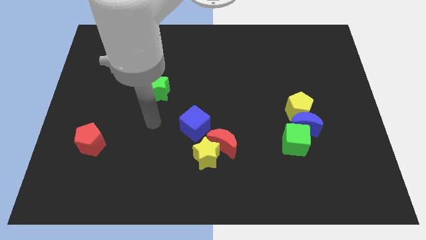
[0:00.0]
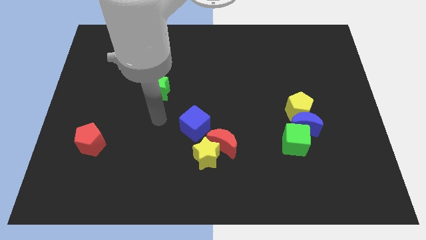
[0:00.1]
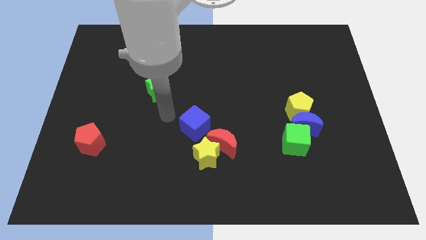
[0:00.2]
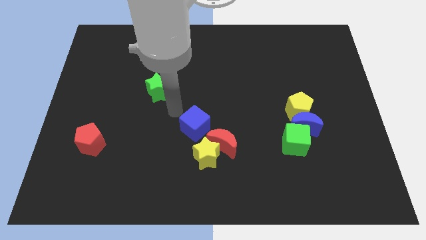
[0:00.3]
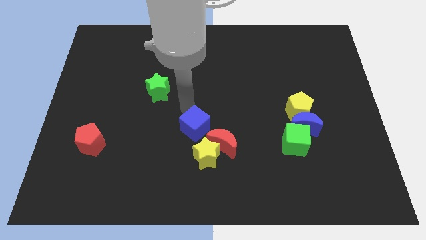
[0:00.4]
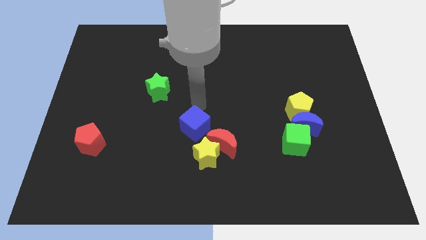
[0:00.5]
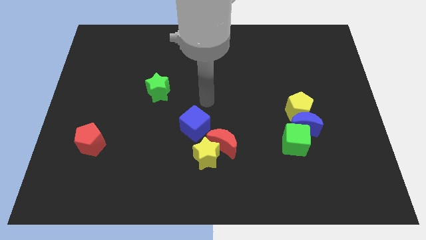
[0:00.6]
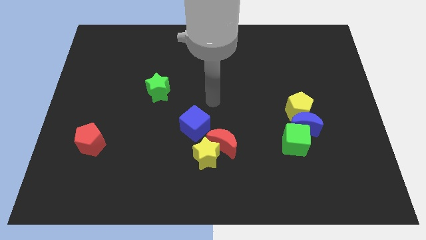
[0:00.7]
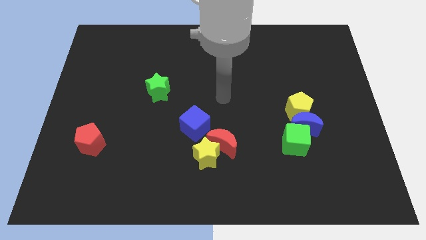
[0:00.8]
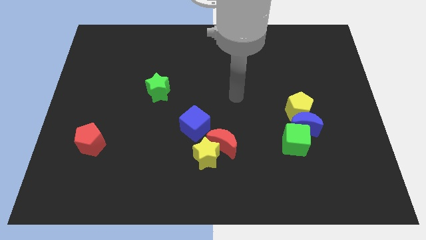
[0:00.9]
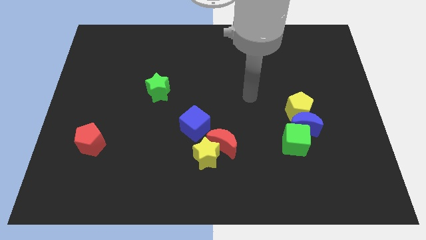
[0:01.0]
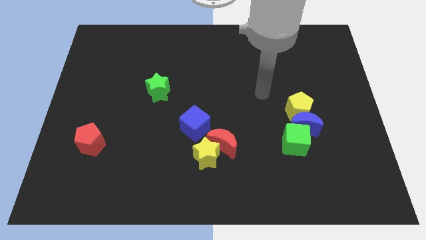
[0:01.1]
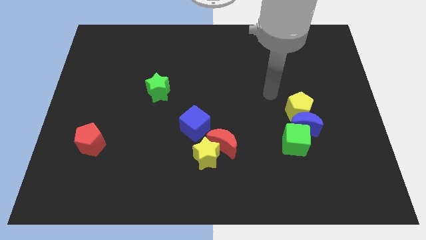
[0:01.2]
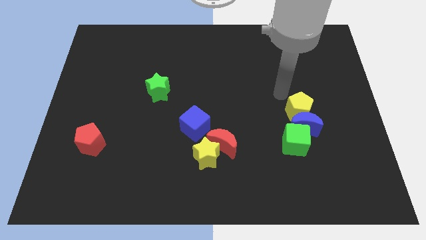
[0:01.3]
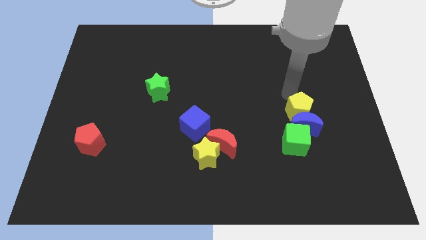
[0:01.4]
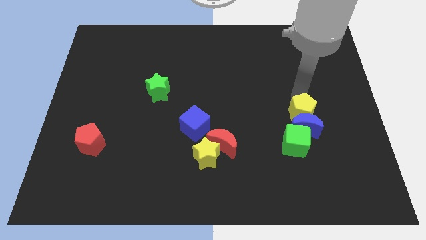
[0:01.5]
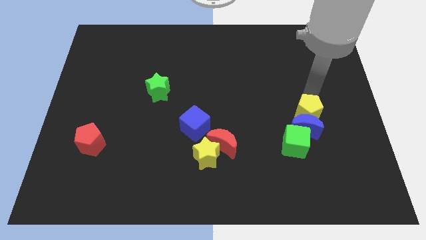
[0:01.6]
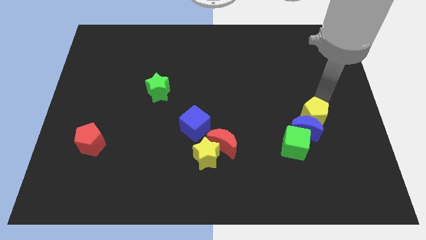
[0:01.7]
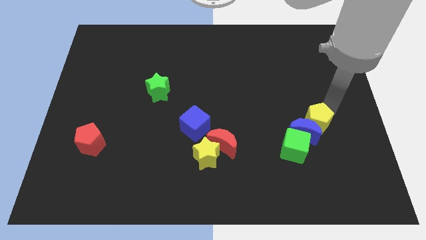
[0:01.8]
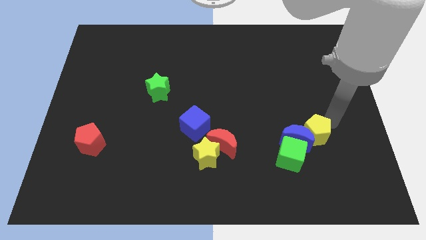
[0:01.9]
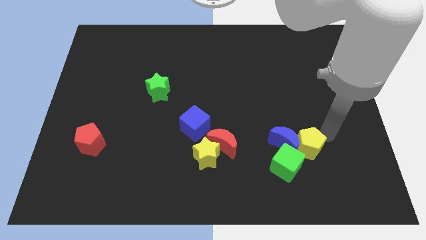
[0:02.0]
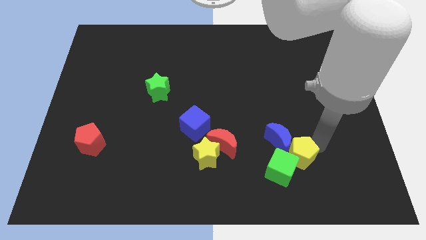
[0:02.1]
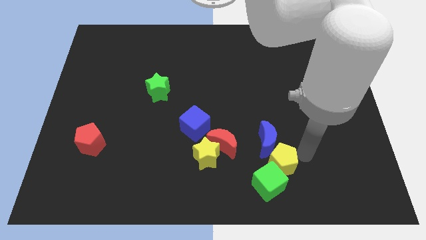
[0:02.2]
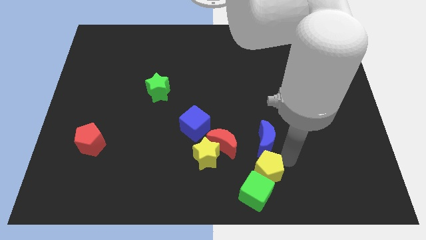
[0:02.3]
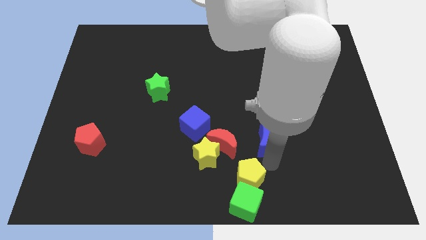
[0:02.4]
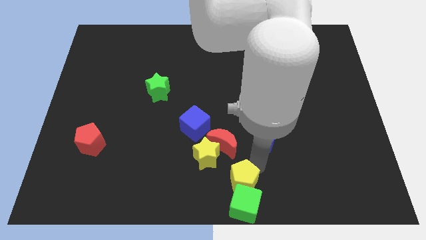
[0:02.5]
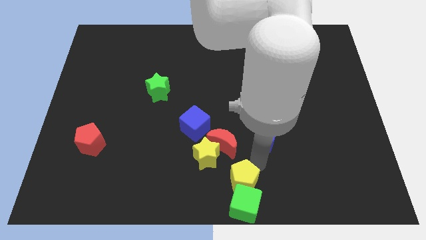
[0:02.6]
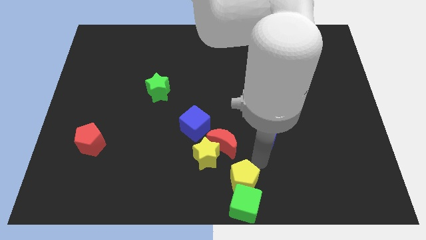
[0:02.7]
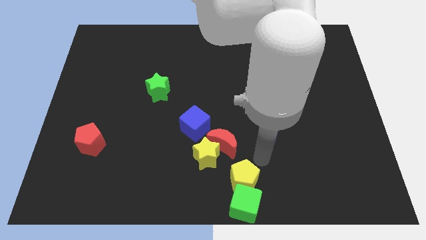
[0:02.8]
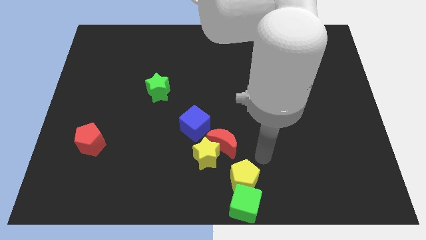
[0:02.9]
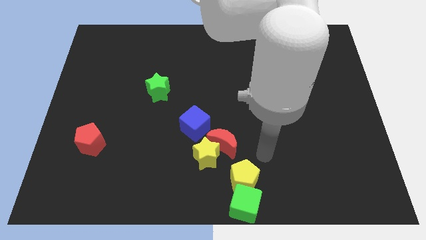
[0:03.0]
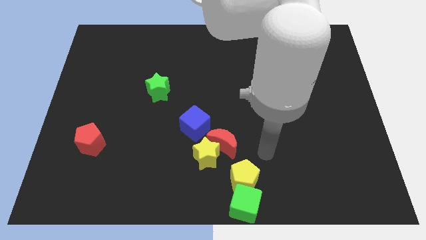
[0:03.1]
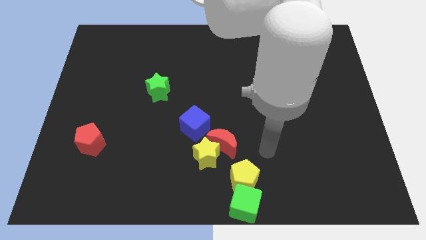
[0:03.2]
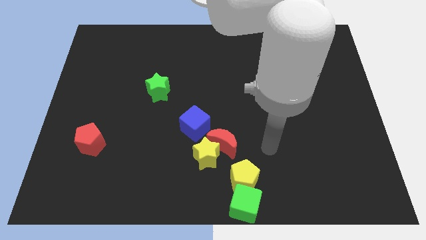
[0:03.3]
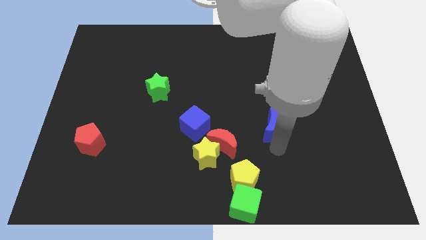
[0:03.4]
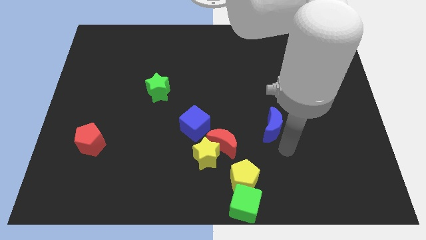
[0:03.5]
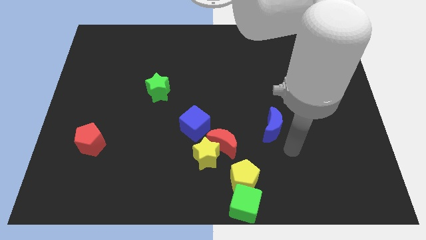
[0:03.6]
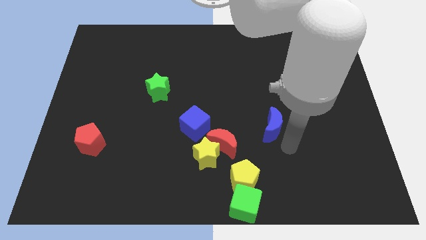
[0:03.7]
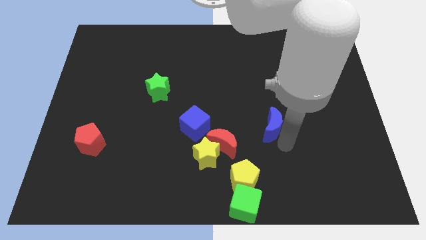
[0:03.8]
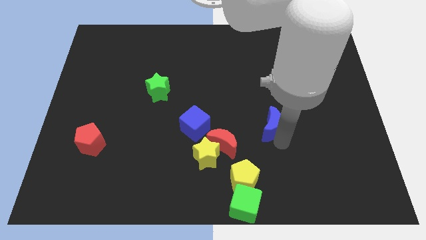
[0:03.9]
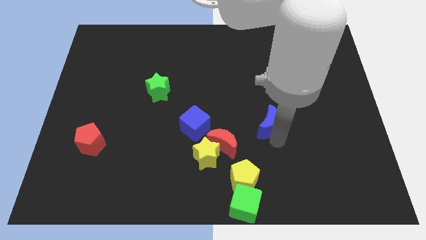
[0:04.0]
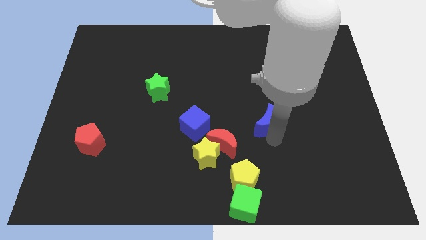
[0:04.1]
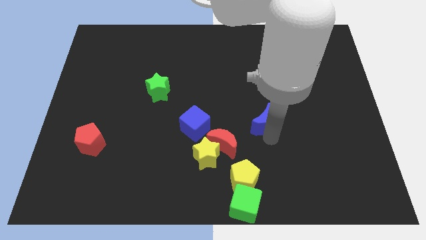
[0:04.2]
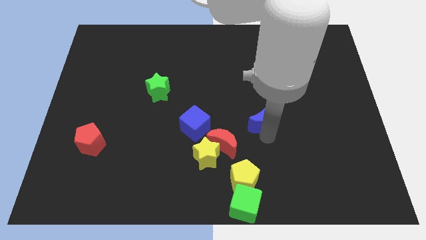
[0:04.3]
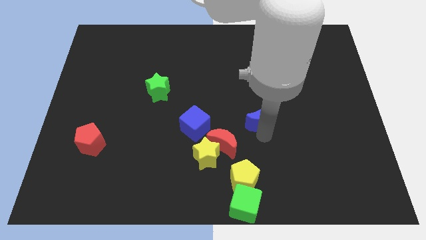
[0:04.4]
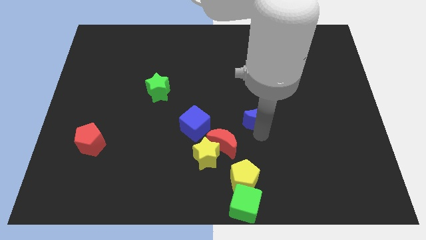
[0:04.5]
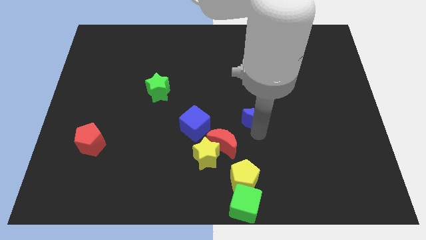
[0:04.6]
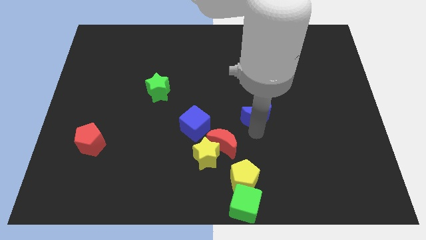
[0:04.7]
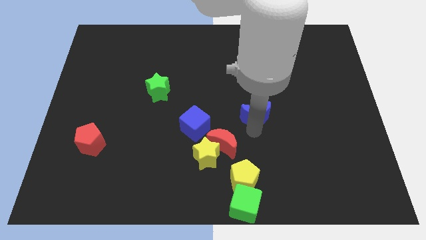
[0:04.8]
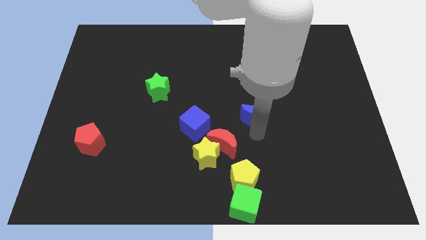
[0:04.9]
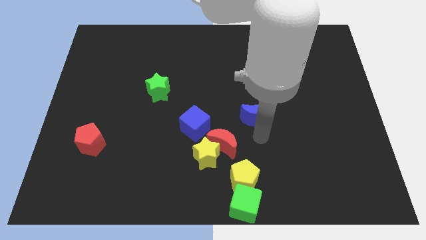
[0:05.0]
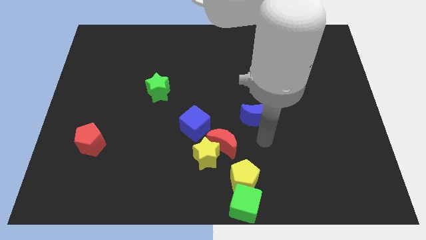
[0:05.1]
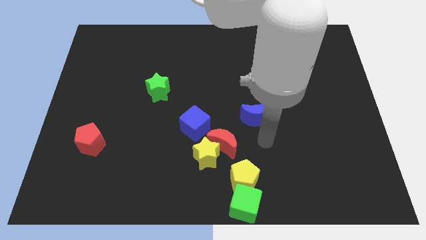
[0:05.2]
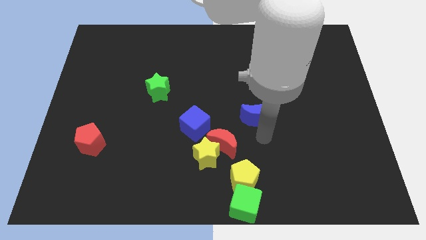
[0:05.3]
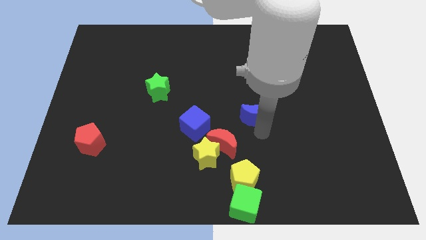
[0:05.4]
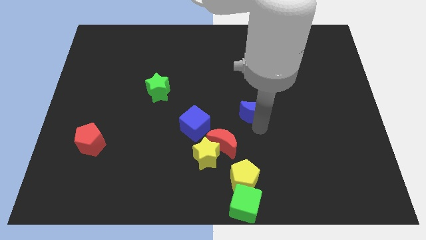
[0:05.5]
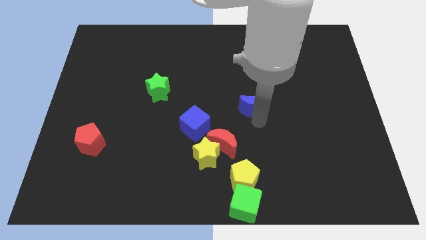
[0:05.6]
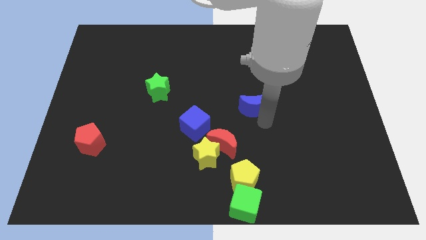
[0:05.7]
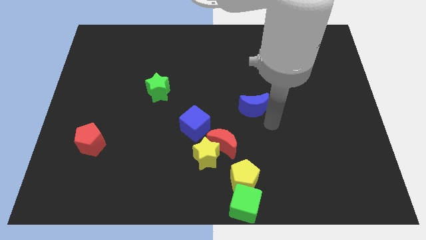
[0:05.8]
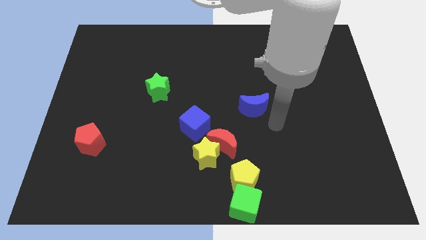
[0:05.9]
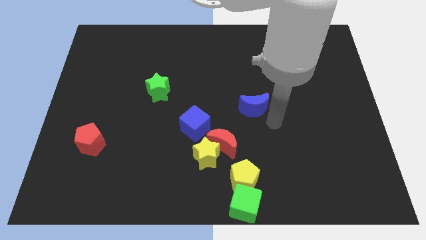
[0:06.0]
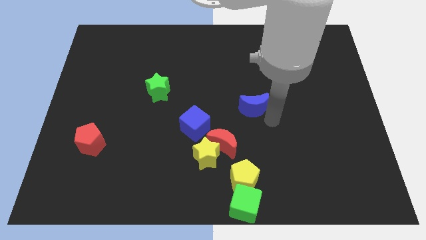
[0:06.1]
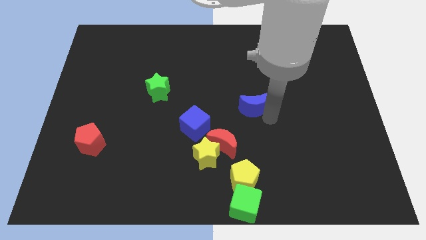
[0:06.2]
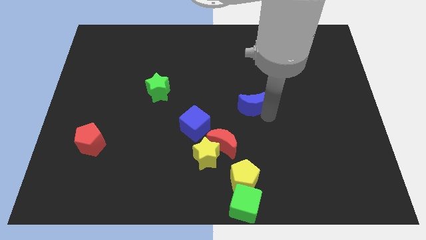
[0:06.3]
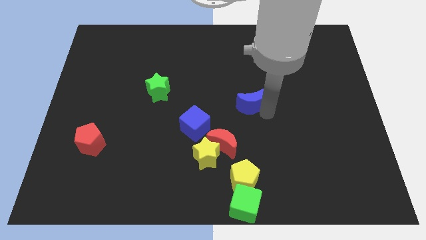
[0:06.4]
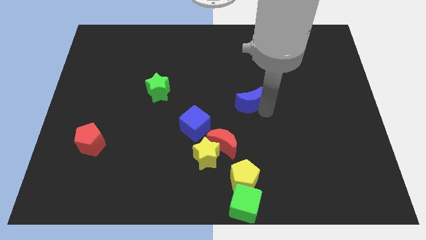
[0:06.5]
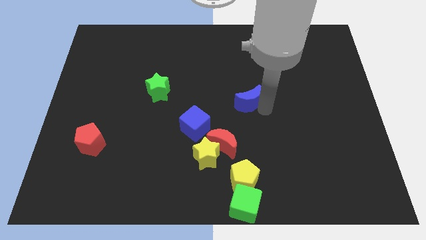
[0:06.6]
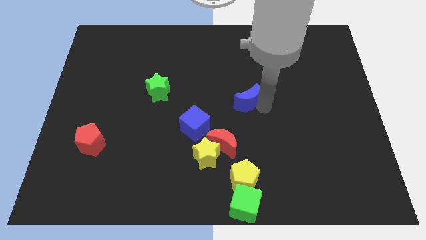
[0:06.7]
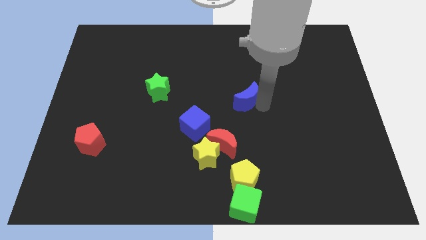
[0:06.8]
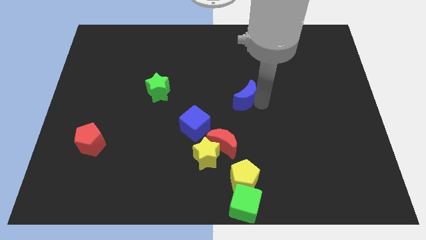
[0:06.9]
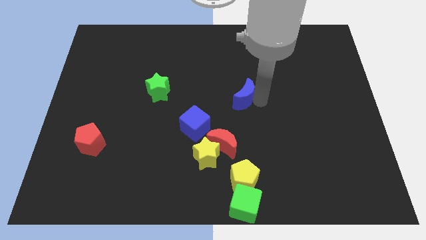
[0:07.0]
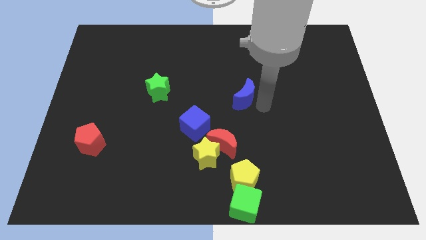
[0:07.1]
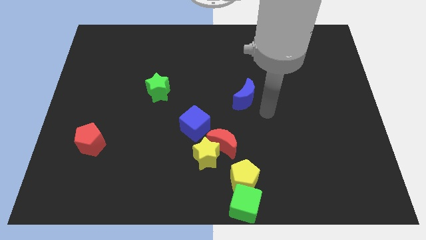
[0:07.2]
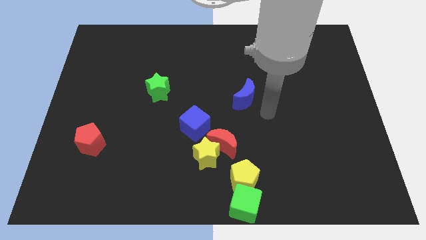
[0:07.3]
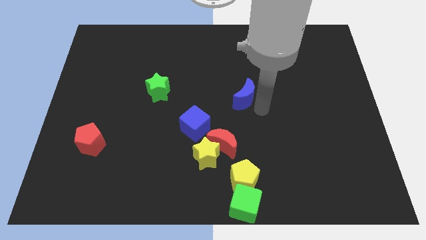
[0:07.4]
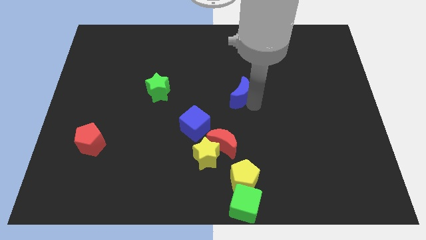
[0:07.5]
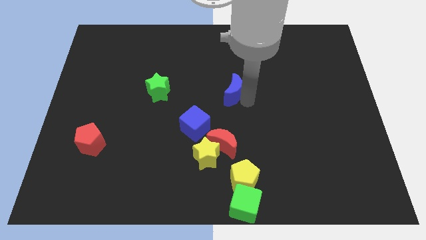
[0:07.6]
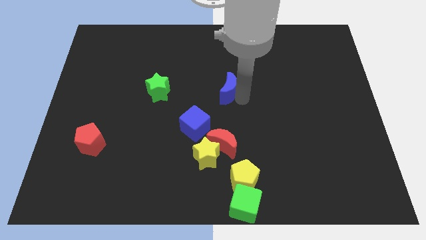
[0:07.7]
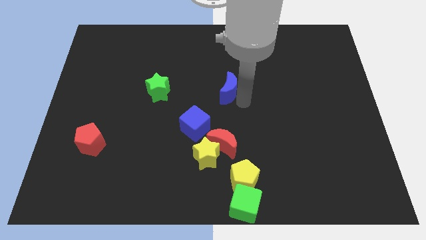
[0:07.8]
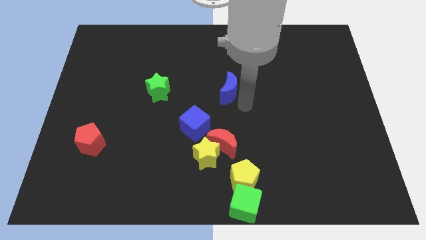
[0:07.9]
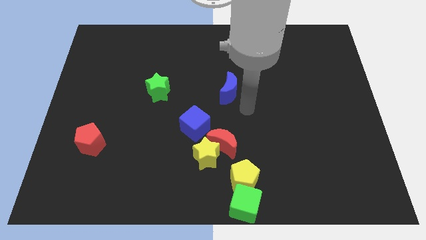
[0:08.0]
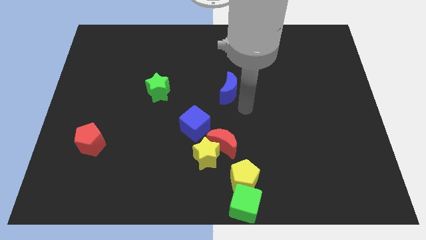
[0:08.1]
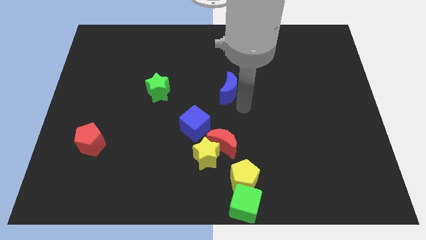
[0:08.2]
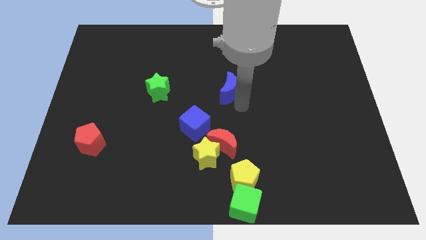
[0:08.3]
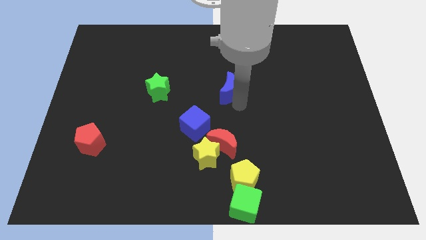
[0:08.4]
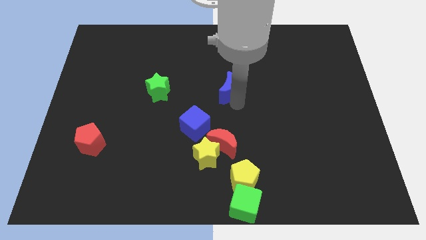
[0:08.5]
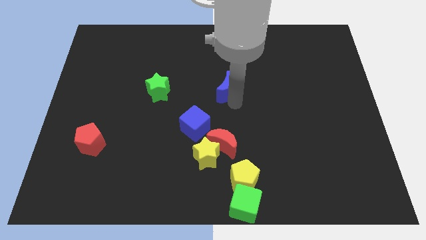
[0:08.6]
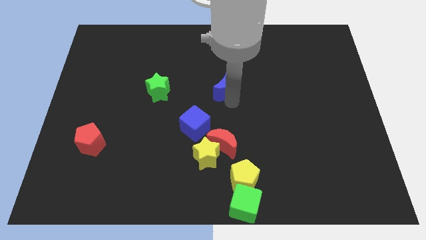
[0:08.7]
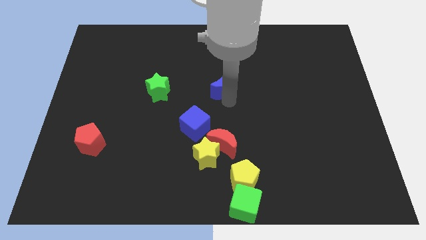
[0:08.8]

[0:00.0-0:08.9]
slide the blue moon diagonally up and left
